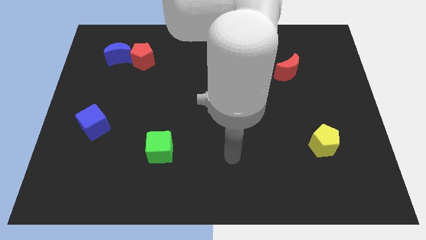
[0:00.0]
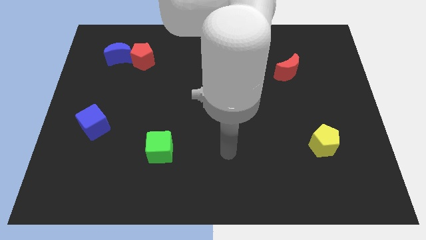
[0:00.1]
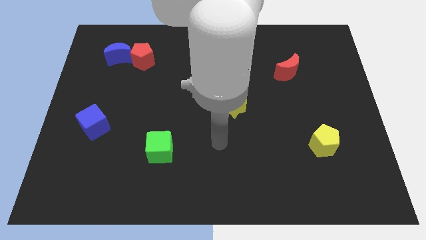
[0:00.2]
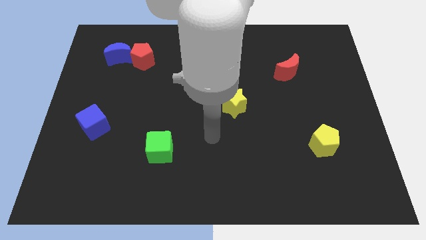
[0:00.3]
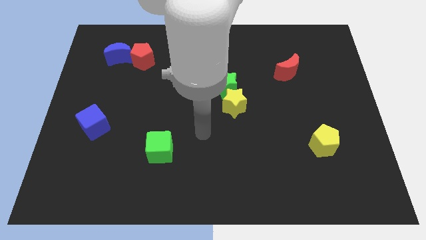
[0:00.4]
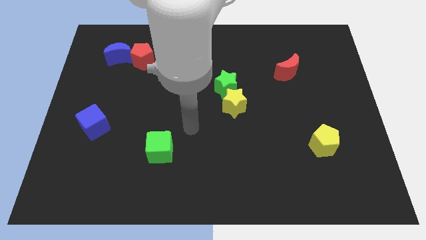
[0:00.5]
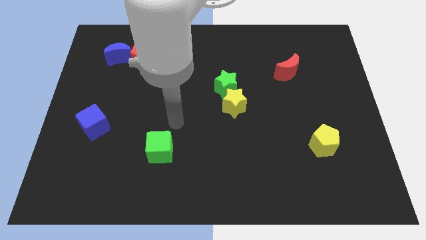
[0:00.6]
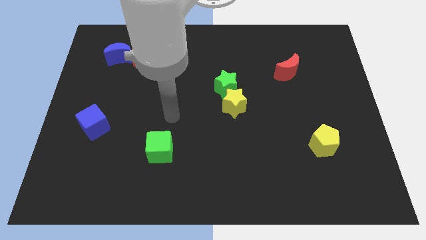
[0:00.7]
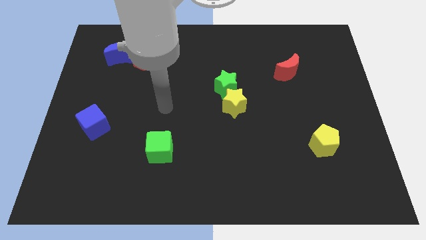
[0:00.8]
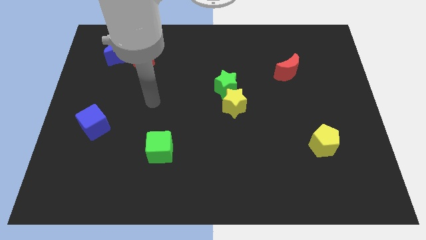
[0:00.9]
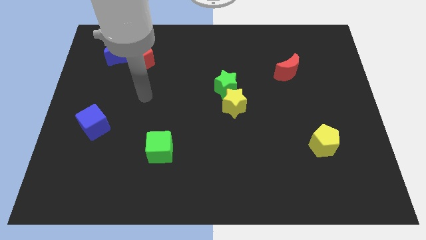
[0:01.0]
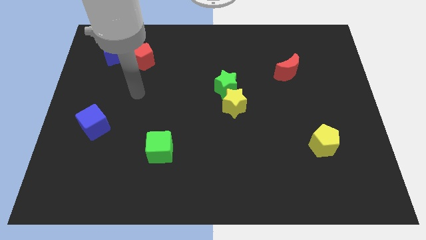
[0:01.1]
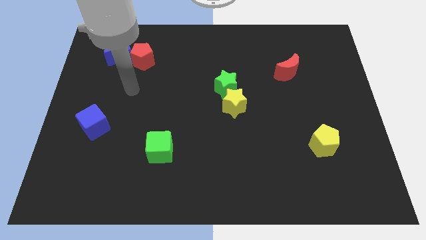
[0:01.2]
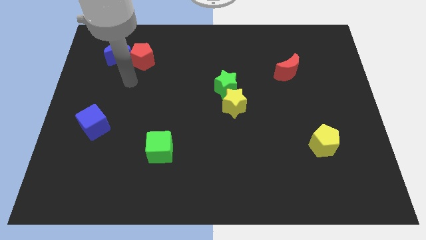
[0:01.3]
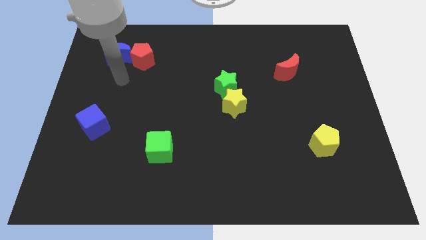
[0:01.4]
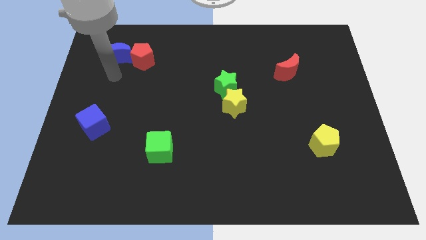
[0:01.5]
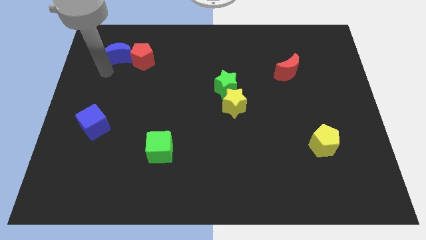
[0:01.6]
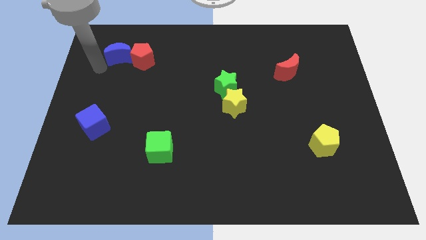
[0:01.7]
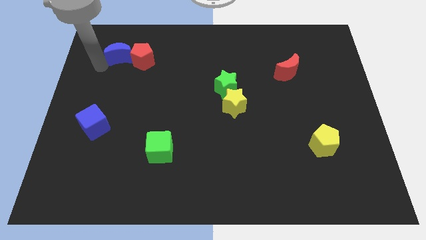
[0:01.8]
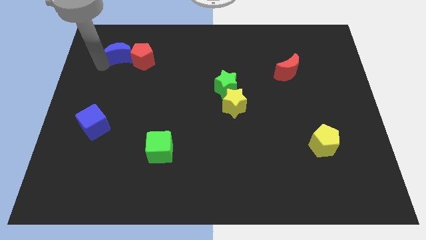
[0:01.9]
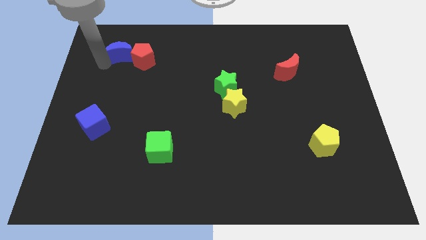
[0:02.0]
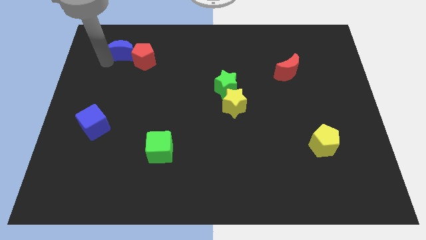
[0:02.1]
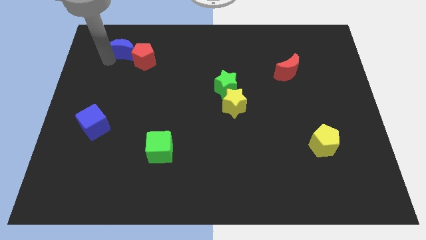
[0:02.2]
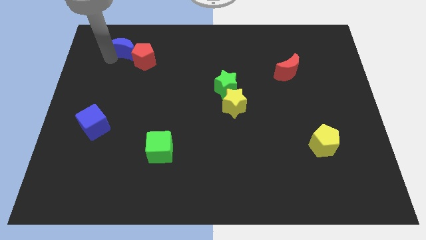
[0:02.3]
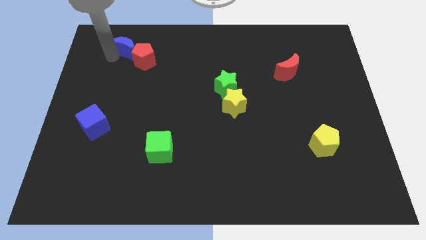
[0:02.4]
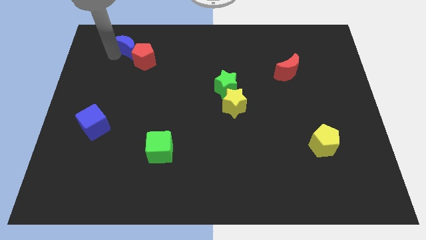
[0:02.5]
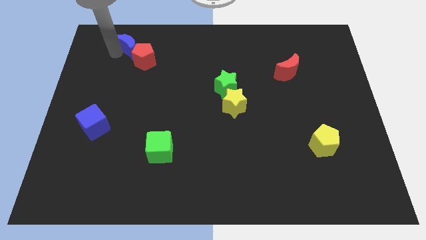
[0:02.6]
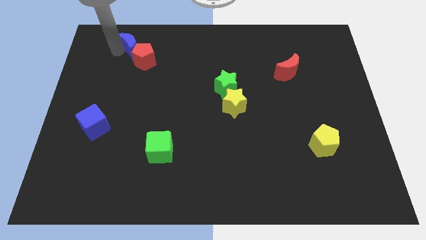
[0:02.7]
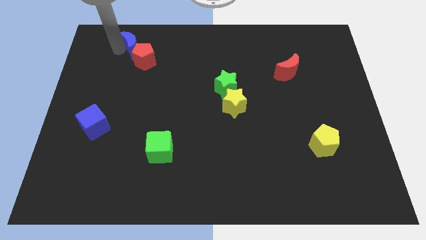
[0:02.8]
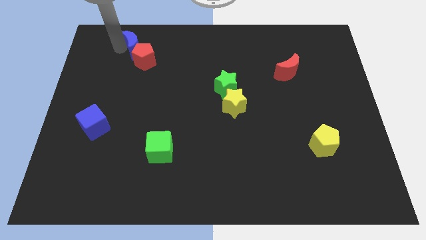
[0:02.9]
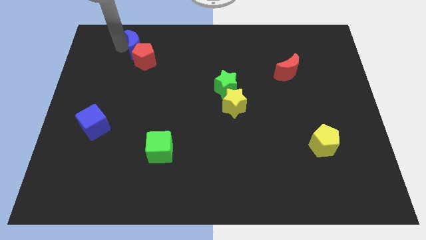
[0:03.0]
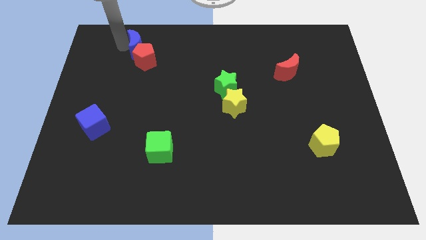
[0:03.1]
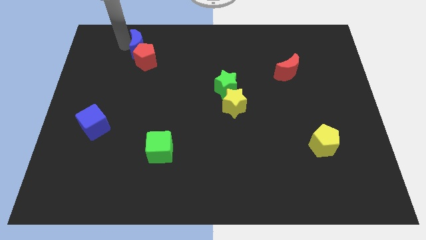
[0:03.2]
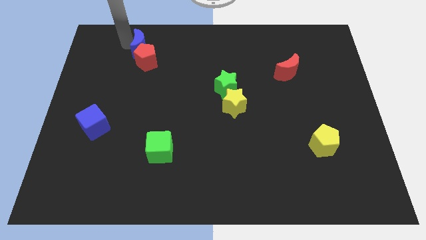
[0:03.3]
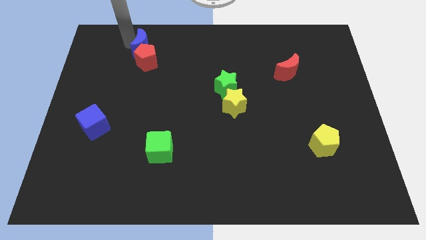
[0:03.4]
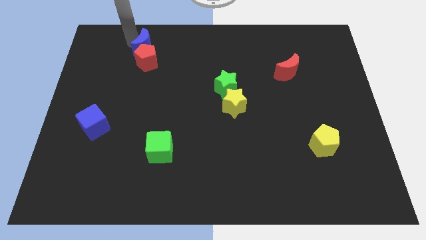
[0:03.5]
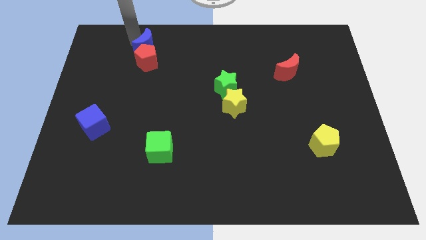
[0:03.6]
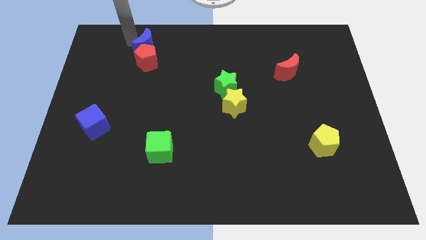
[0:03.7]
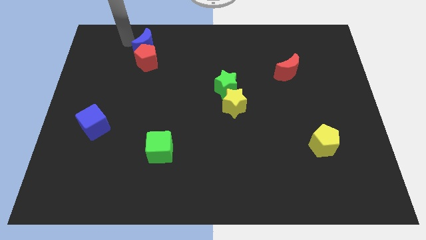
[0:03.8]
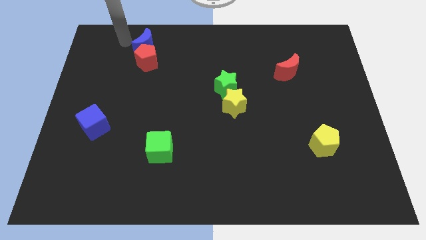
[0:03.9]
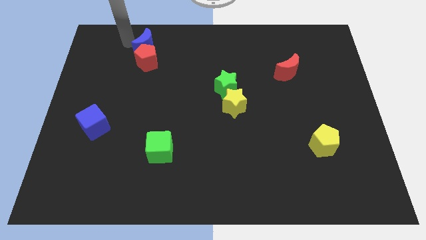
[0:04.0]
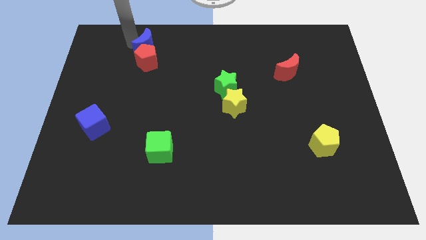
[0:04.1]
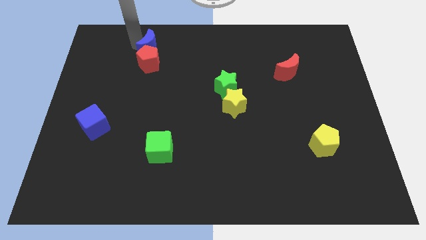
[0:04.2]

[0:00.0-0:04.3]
push the blue moon somewhat to the right

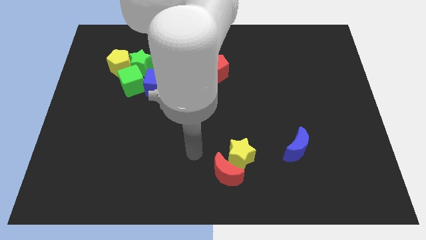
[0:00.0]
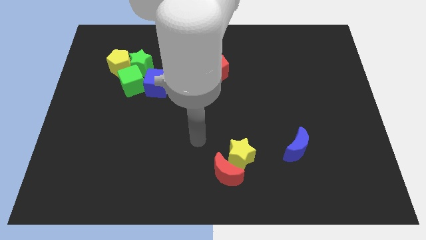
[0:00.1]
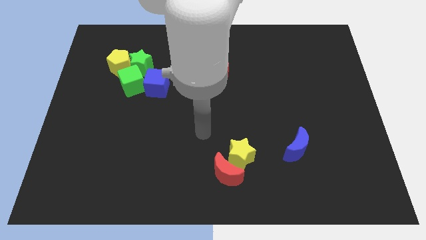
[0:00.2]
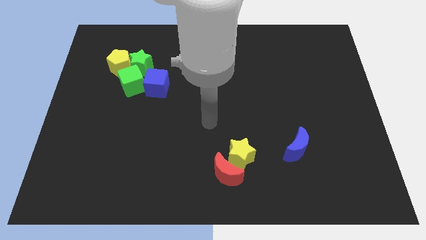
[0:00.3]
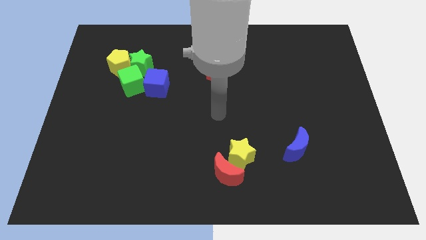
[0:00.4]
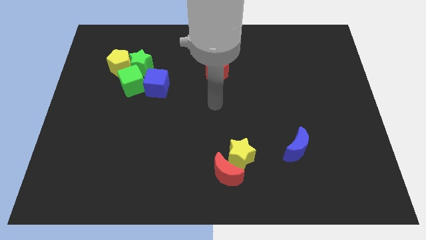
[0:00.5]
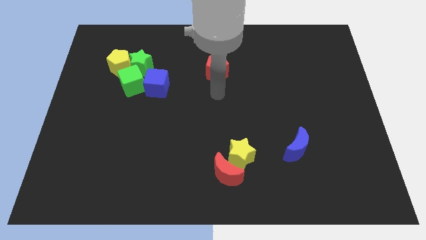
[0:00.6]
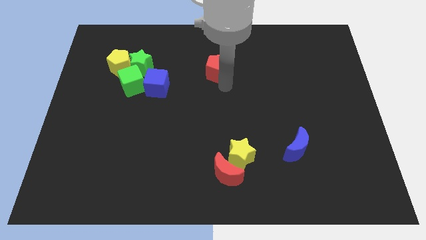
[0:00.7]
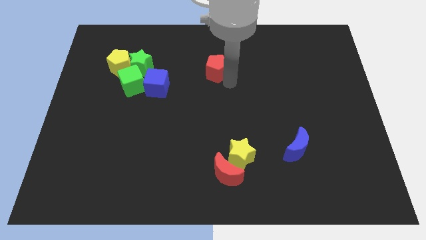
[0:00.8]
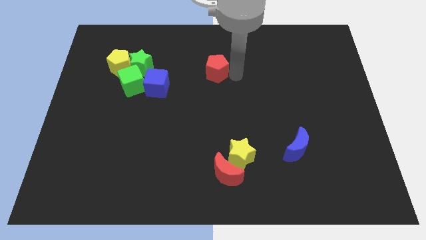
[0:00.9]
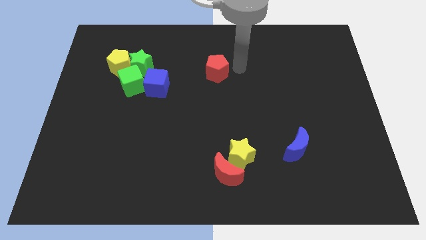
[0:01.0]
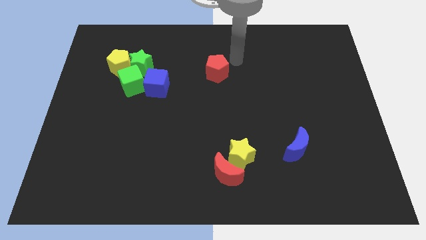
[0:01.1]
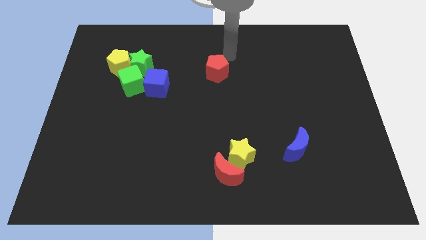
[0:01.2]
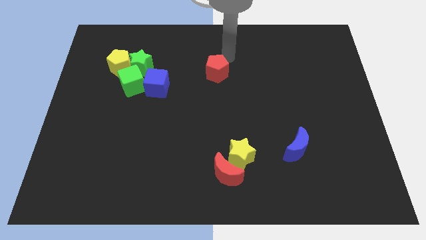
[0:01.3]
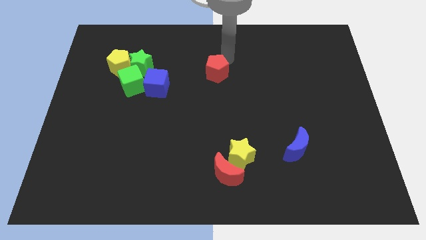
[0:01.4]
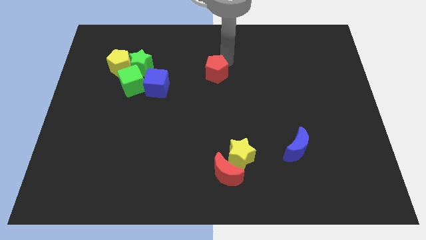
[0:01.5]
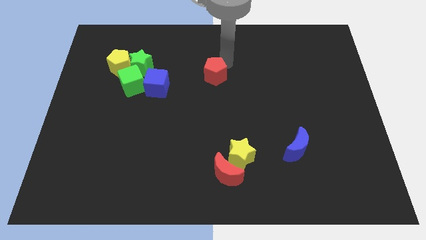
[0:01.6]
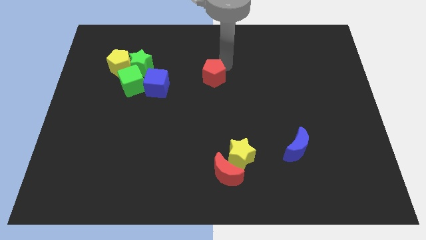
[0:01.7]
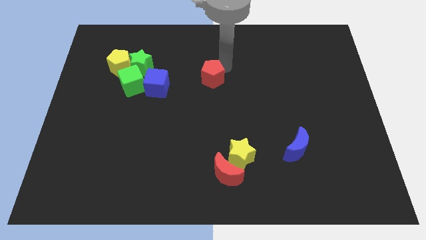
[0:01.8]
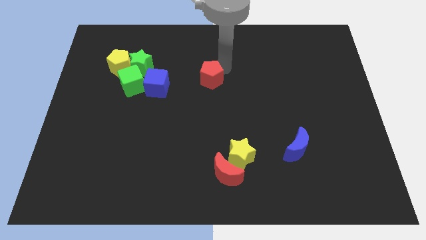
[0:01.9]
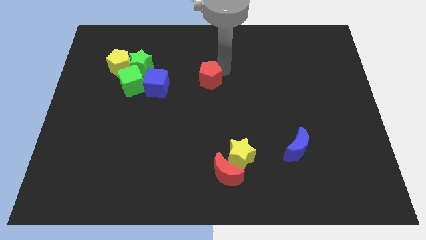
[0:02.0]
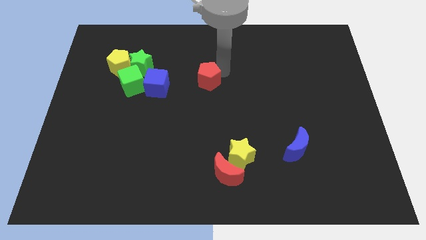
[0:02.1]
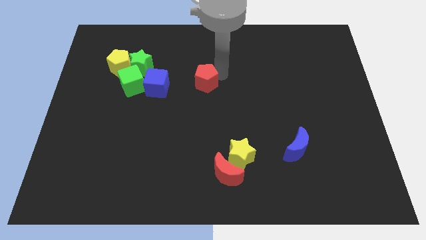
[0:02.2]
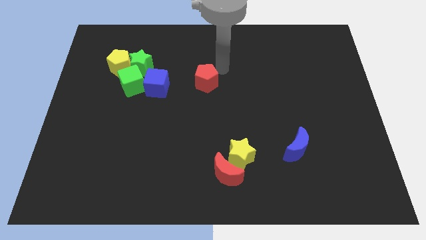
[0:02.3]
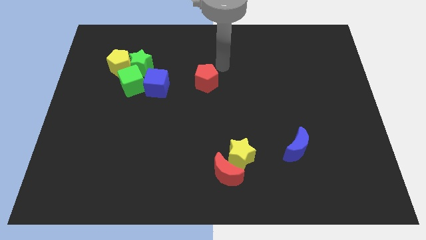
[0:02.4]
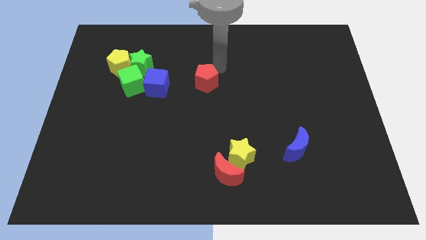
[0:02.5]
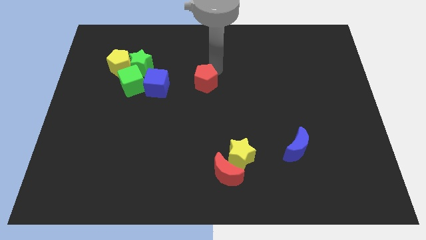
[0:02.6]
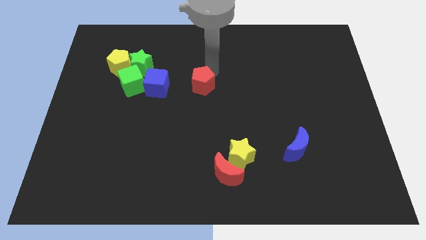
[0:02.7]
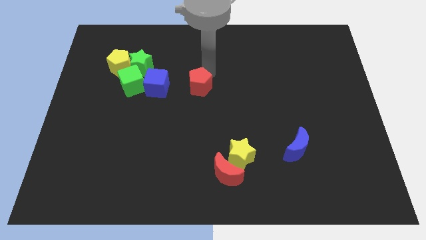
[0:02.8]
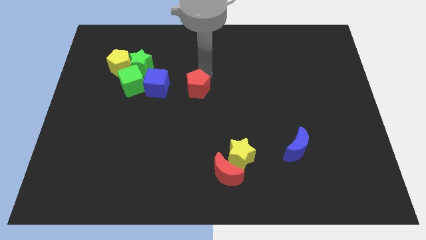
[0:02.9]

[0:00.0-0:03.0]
push the red pentagon a bit downwards and left

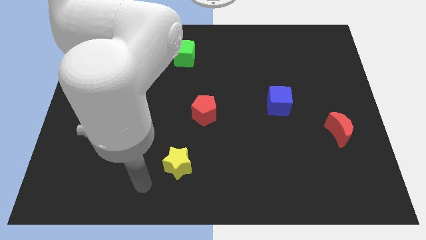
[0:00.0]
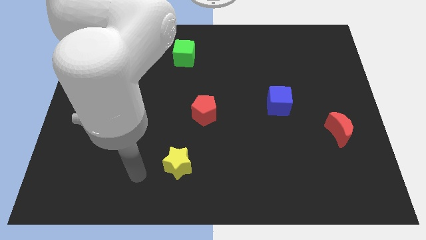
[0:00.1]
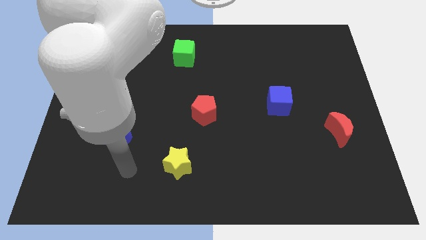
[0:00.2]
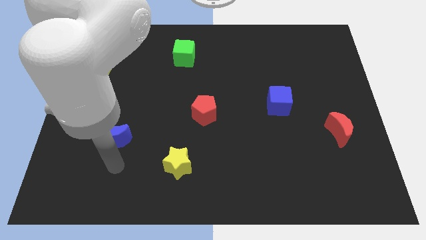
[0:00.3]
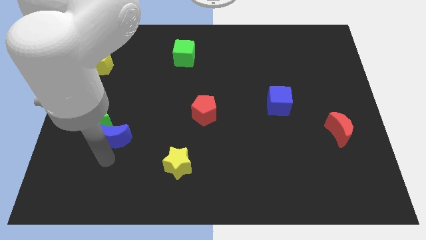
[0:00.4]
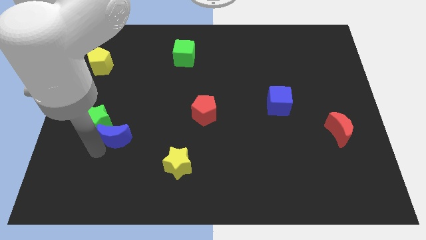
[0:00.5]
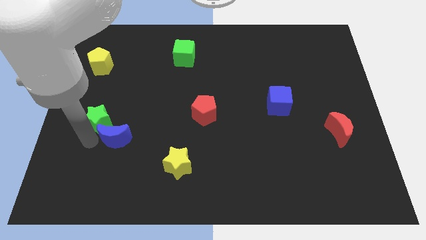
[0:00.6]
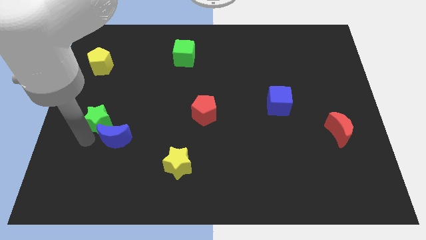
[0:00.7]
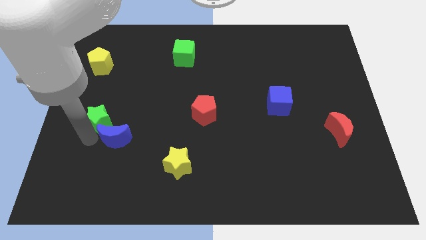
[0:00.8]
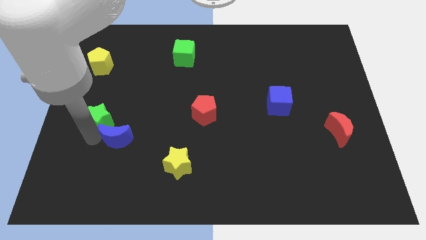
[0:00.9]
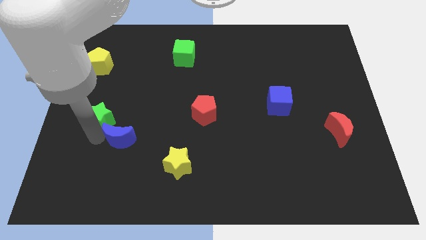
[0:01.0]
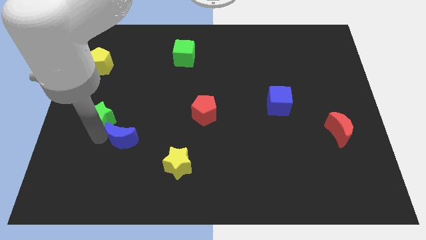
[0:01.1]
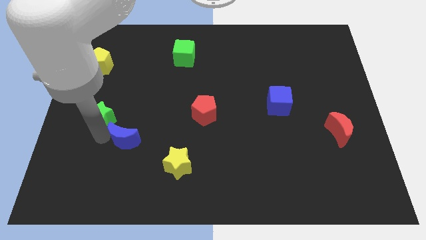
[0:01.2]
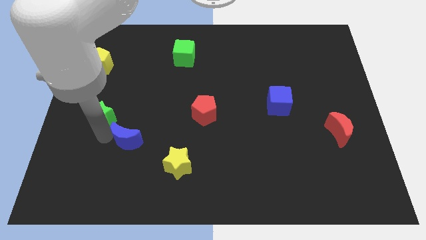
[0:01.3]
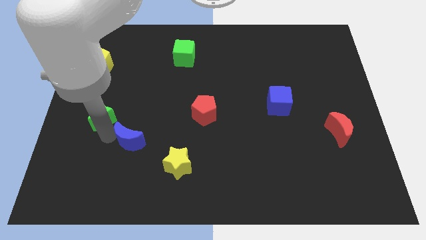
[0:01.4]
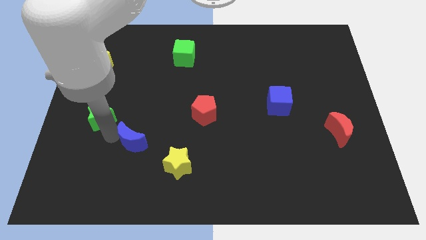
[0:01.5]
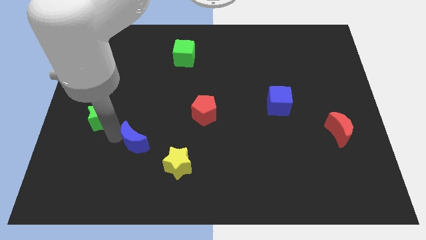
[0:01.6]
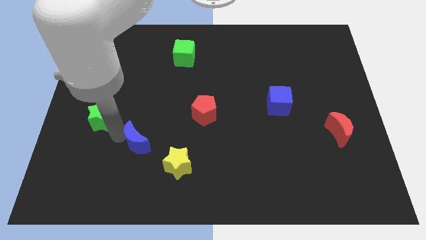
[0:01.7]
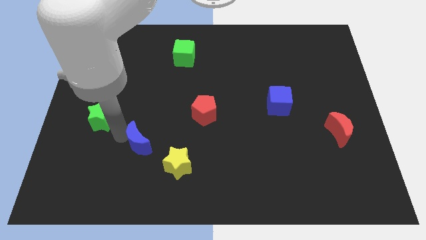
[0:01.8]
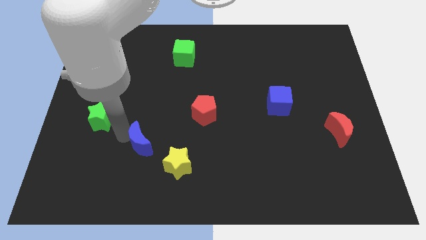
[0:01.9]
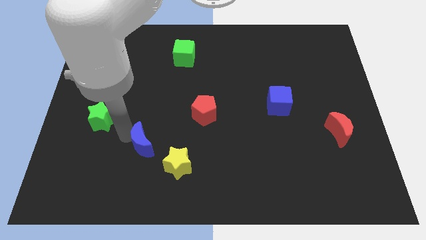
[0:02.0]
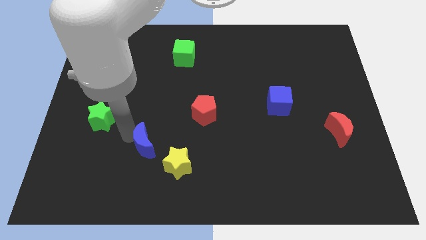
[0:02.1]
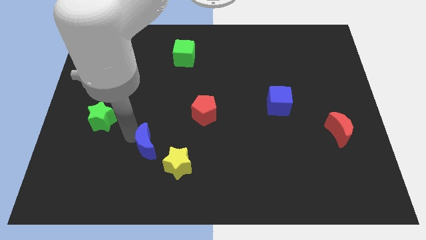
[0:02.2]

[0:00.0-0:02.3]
push the blue moon a little right
